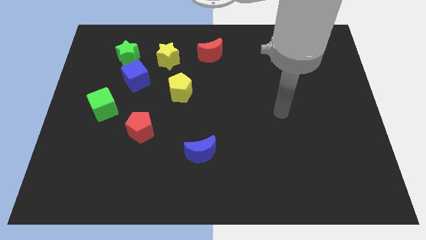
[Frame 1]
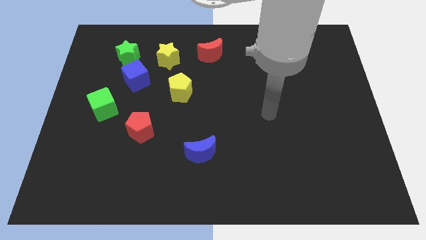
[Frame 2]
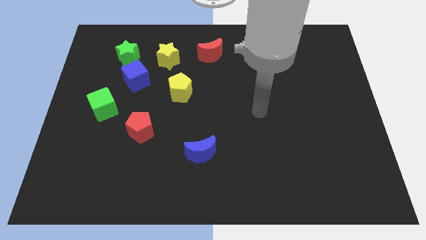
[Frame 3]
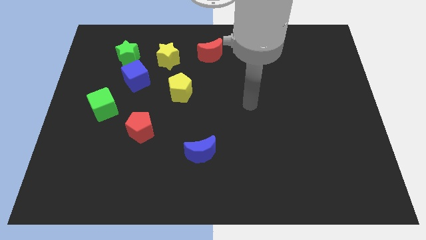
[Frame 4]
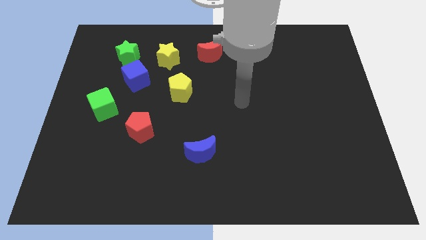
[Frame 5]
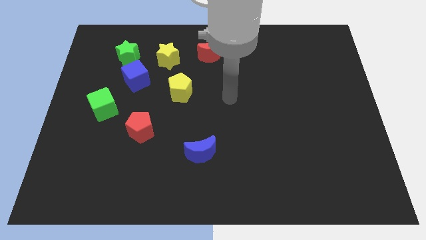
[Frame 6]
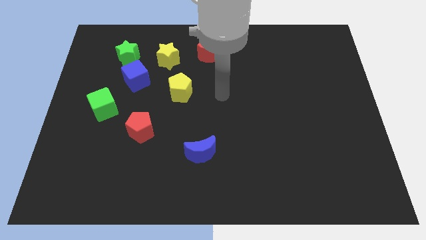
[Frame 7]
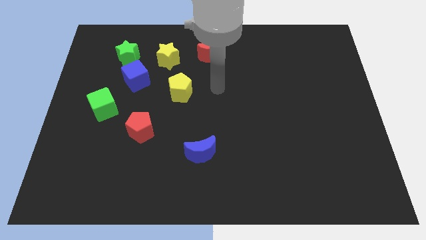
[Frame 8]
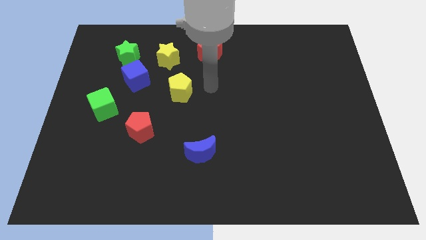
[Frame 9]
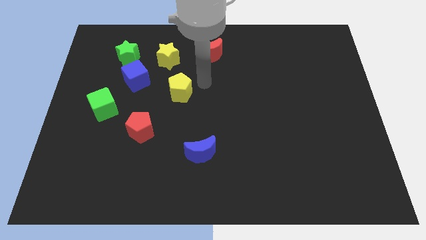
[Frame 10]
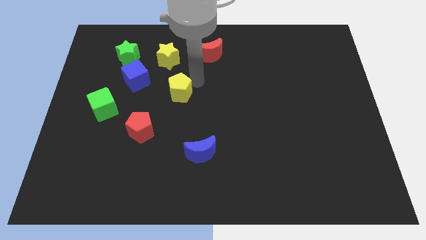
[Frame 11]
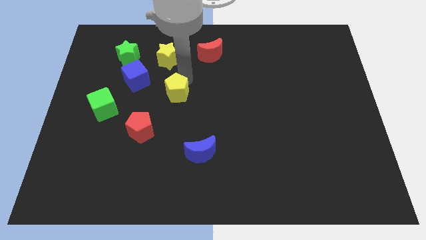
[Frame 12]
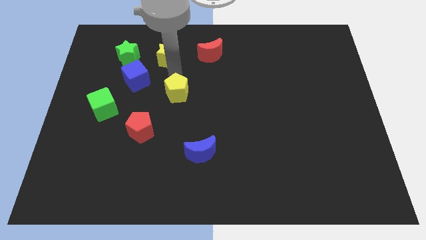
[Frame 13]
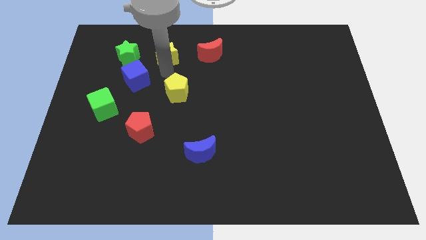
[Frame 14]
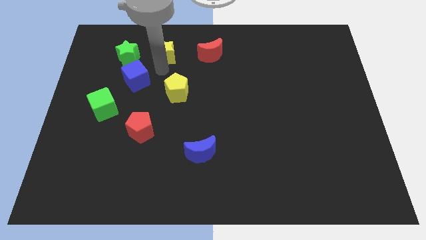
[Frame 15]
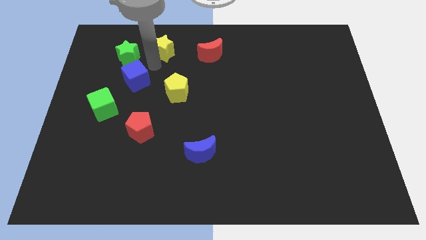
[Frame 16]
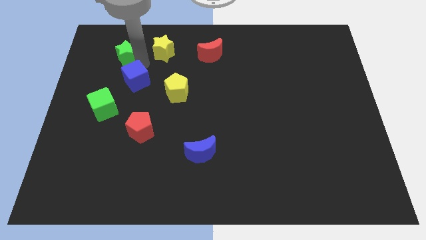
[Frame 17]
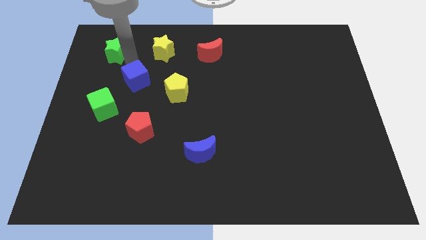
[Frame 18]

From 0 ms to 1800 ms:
separate the blue cube from the green star

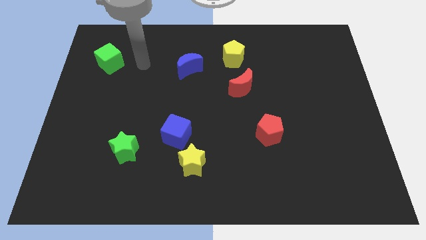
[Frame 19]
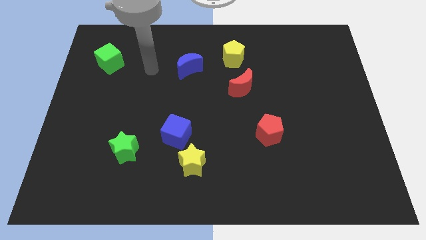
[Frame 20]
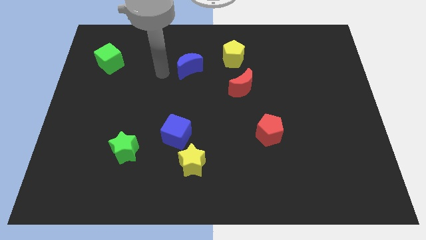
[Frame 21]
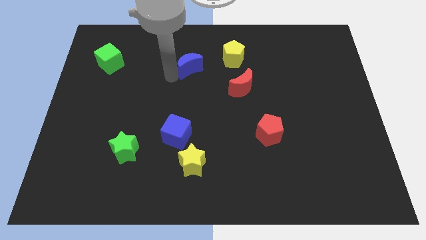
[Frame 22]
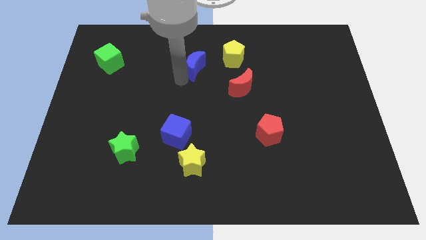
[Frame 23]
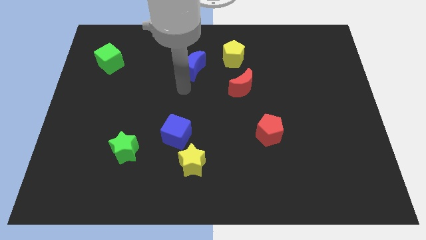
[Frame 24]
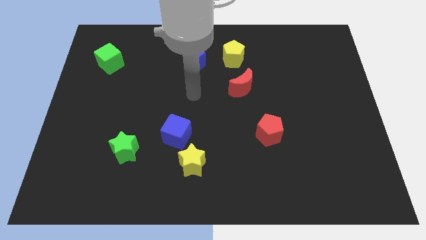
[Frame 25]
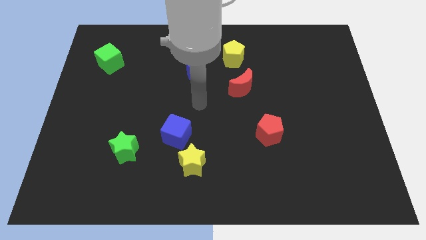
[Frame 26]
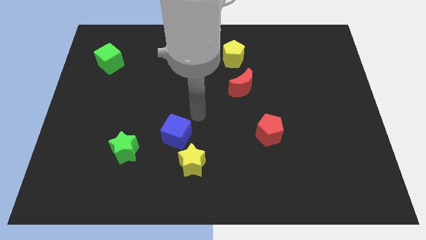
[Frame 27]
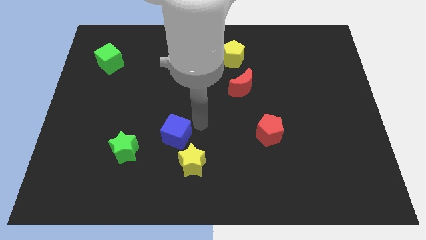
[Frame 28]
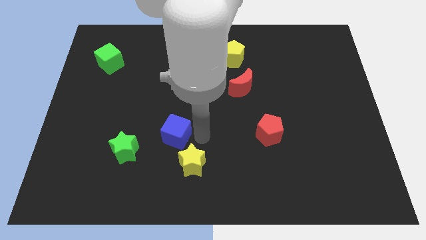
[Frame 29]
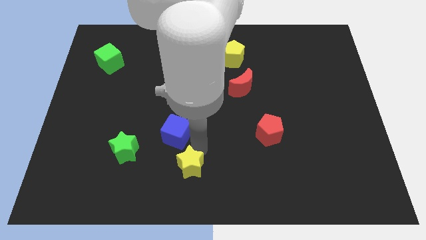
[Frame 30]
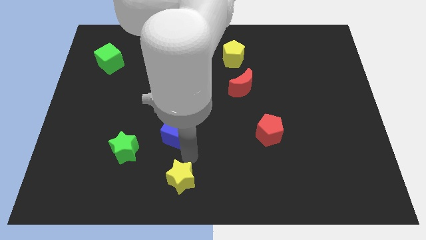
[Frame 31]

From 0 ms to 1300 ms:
separate the blue cube from the yellow star

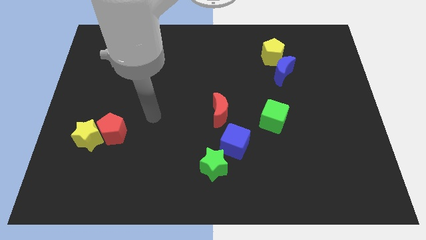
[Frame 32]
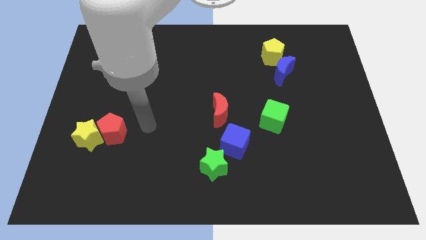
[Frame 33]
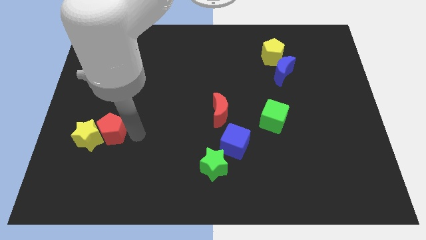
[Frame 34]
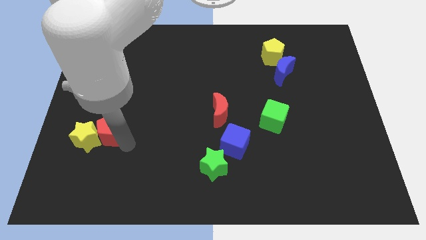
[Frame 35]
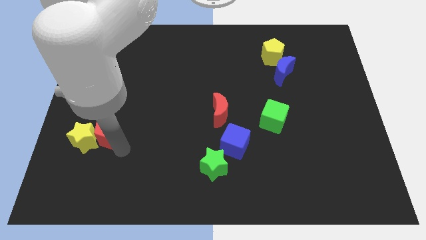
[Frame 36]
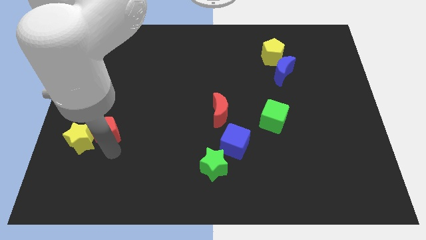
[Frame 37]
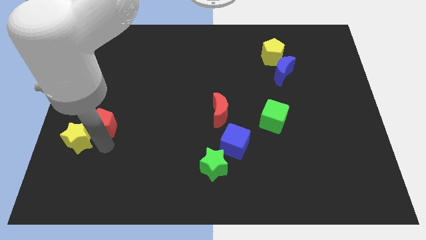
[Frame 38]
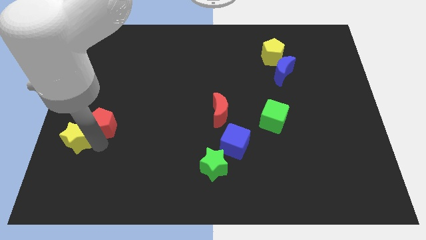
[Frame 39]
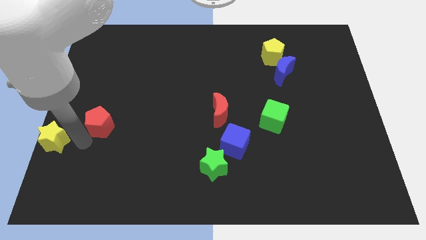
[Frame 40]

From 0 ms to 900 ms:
pull the red pentagon apart from the yellow star

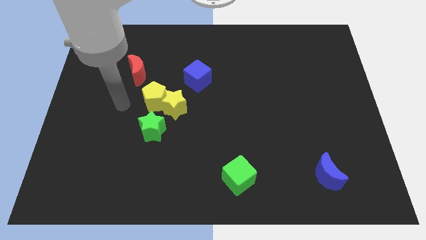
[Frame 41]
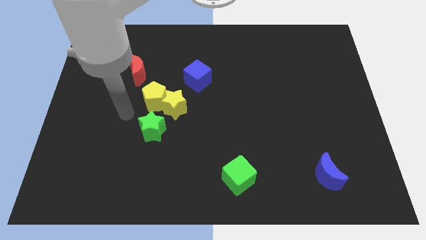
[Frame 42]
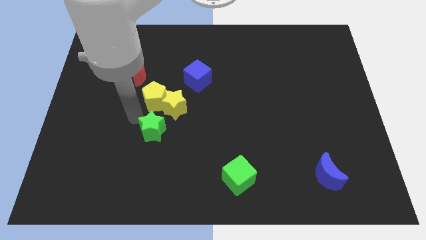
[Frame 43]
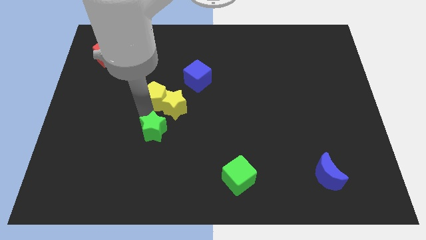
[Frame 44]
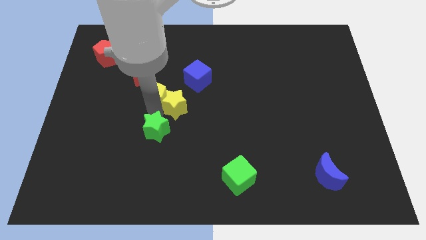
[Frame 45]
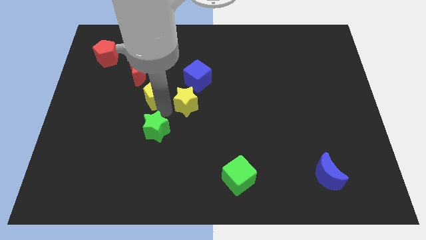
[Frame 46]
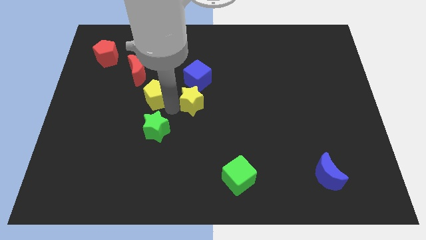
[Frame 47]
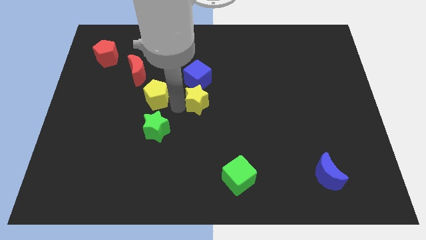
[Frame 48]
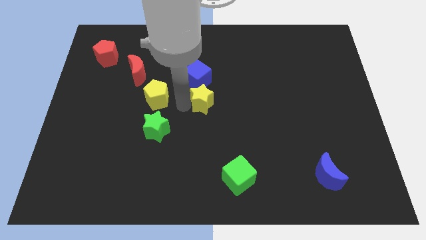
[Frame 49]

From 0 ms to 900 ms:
move the yellow star away from the yellow pentagon and green star

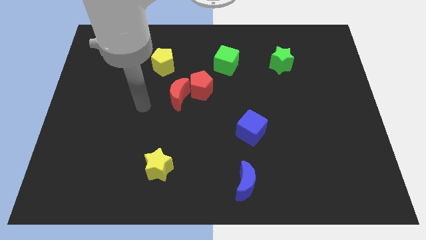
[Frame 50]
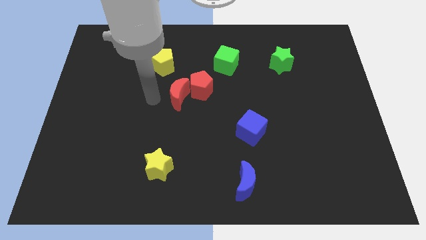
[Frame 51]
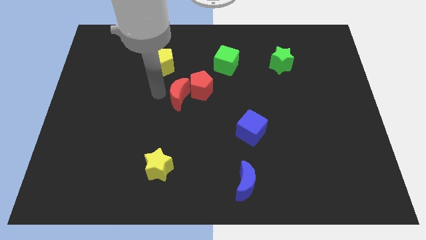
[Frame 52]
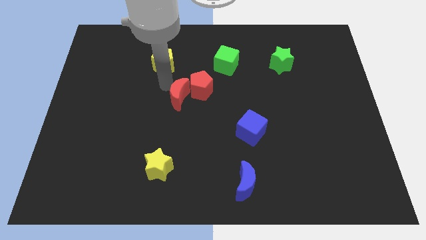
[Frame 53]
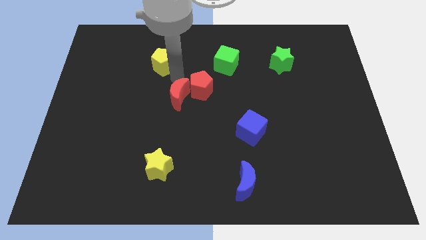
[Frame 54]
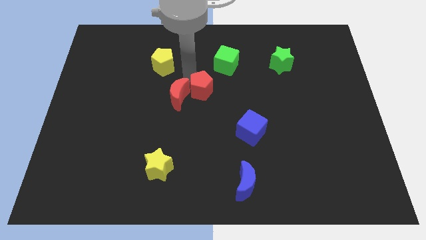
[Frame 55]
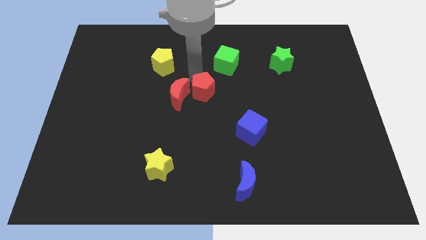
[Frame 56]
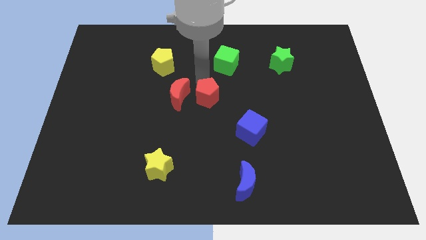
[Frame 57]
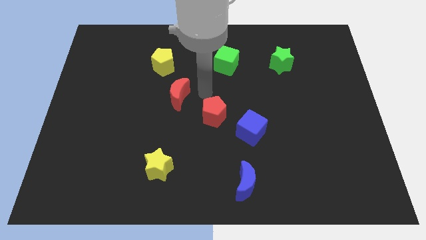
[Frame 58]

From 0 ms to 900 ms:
separate the red moon from the red pentagon

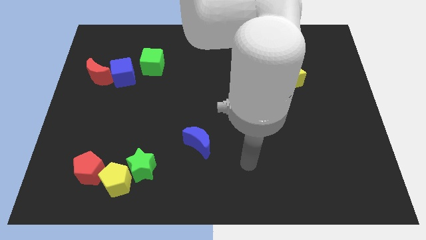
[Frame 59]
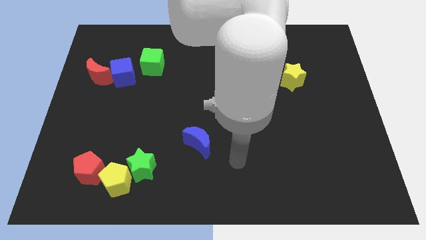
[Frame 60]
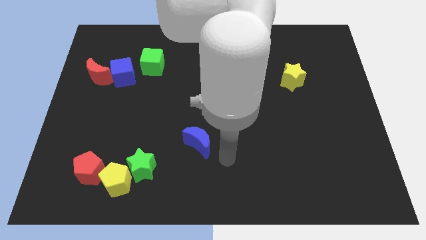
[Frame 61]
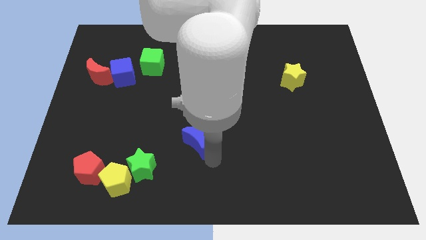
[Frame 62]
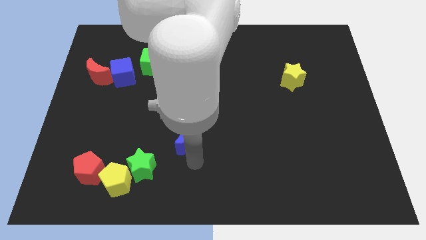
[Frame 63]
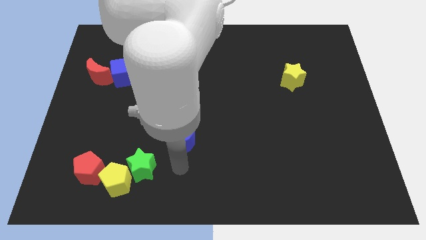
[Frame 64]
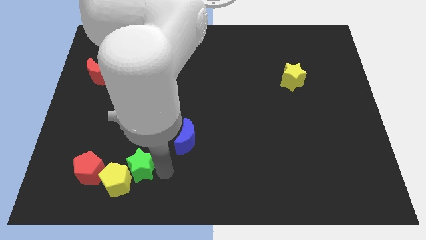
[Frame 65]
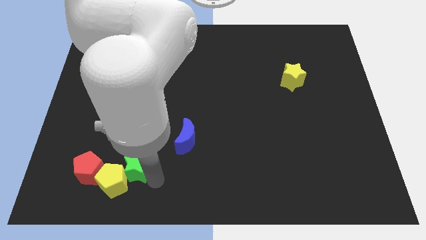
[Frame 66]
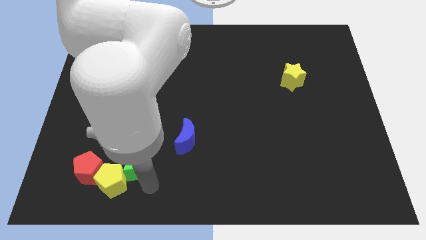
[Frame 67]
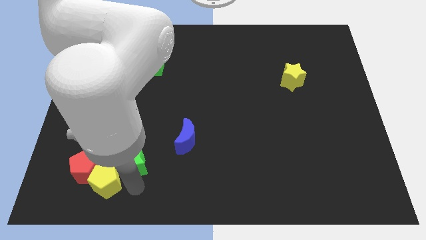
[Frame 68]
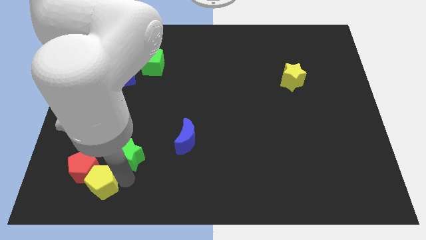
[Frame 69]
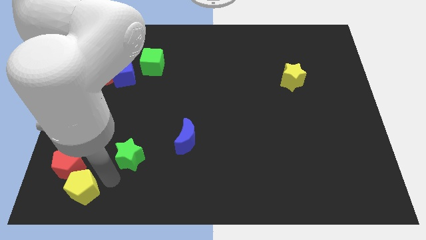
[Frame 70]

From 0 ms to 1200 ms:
pull the green star apart from the yellow pentagon

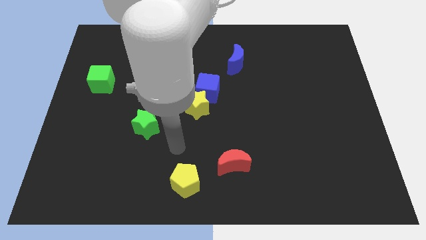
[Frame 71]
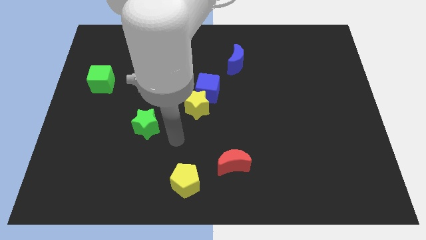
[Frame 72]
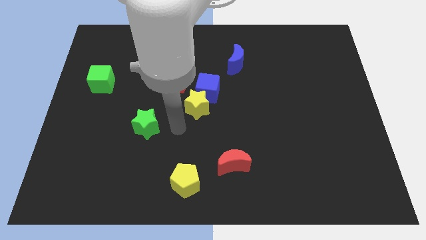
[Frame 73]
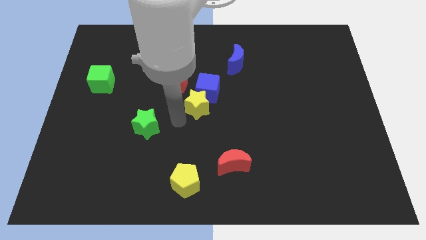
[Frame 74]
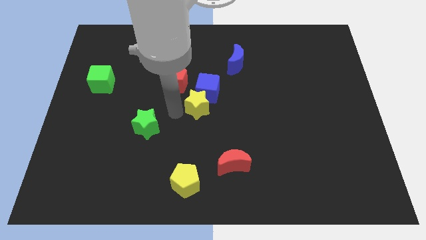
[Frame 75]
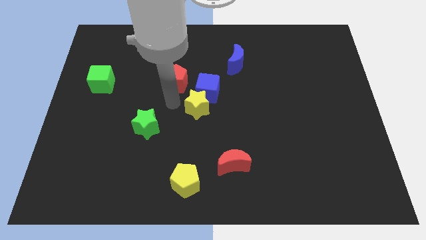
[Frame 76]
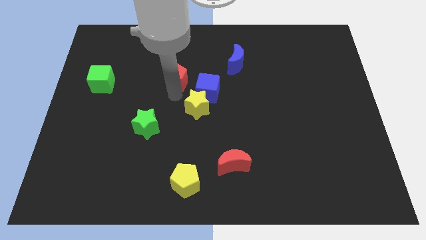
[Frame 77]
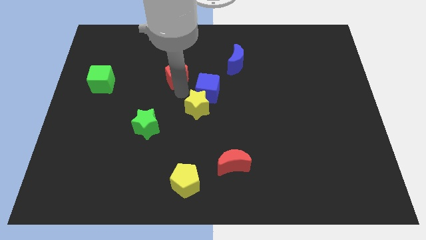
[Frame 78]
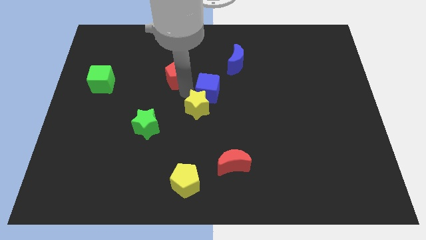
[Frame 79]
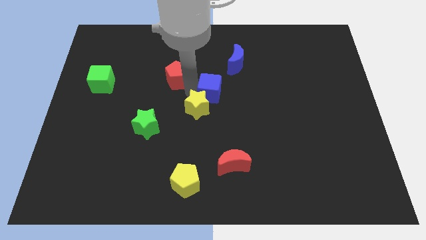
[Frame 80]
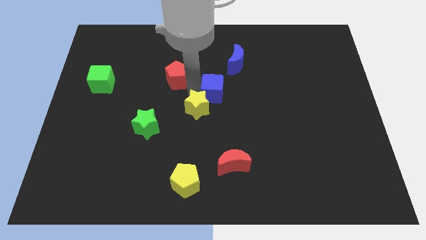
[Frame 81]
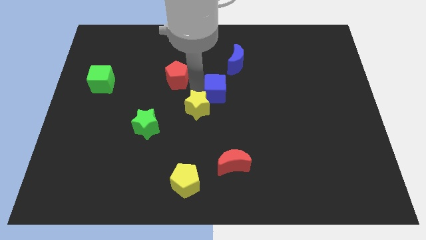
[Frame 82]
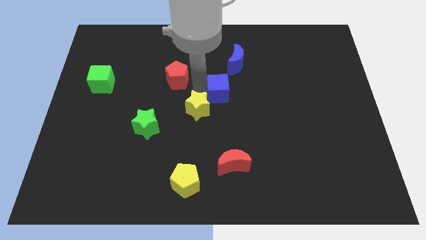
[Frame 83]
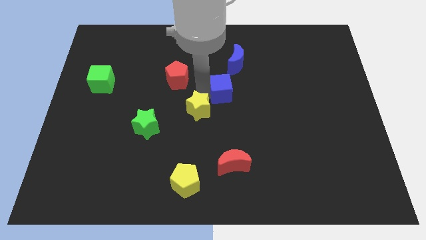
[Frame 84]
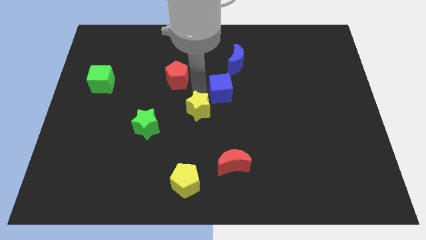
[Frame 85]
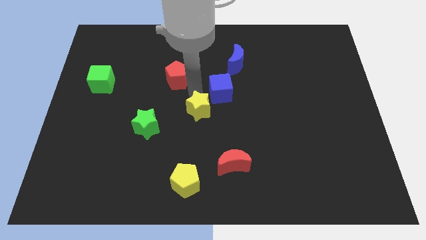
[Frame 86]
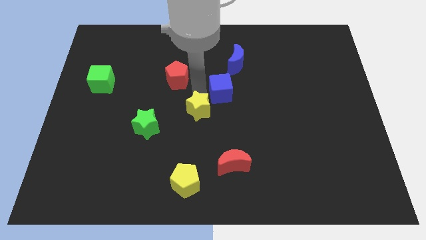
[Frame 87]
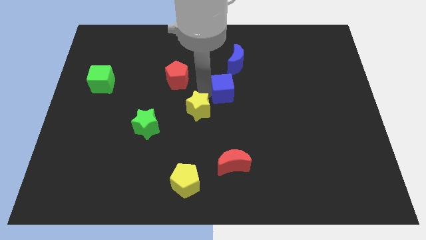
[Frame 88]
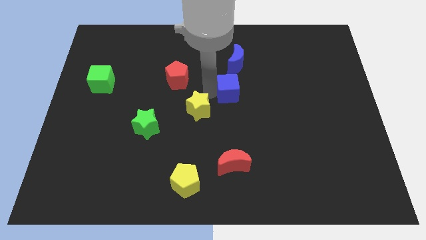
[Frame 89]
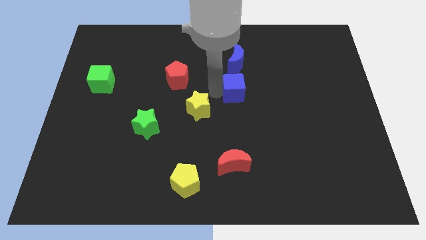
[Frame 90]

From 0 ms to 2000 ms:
pull the blue cube apart from the yellow star and red pentagon

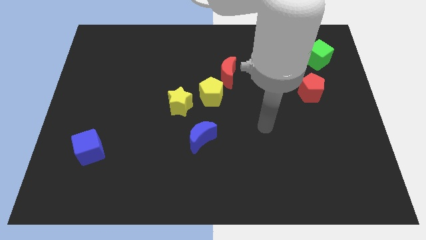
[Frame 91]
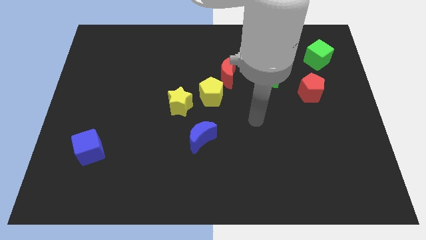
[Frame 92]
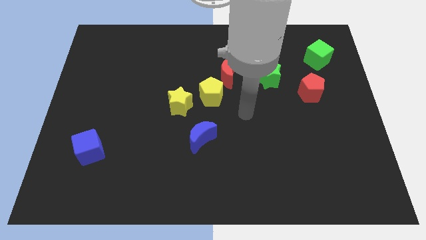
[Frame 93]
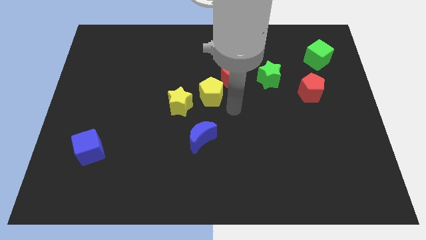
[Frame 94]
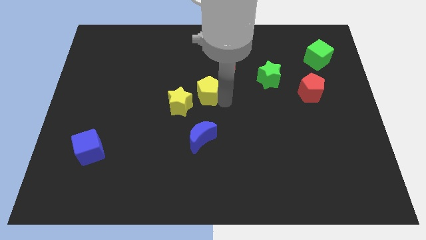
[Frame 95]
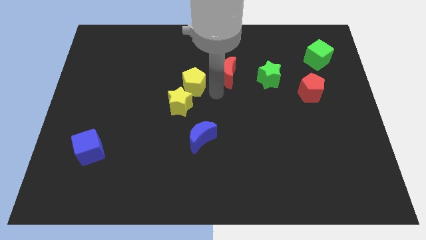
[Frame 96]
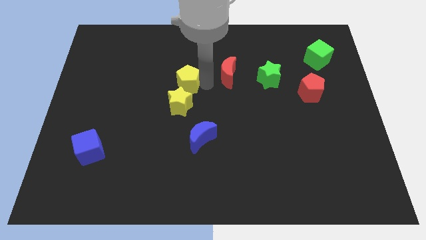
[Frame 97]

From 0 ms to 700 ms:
pull the red moon apart from the yellow pentagon
